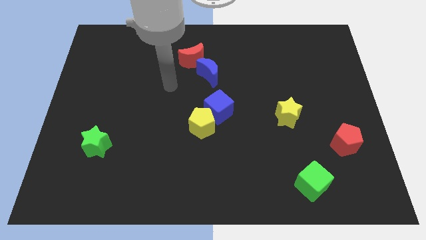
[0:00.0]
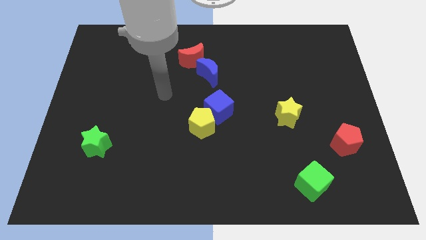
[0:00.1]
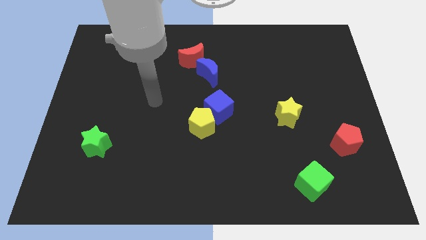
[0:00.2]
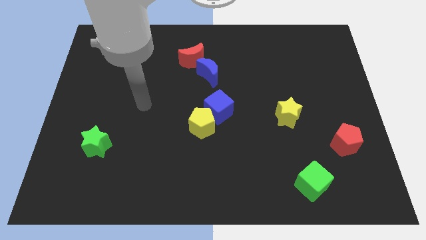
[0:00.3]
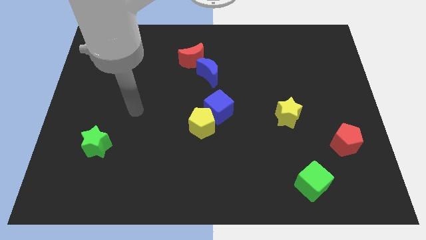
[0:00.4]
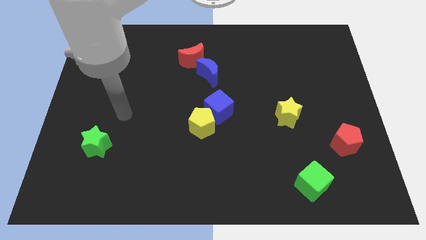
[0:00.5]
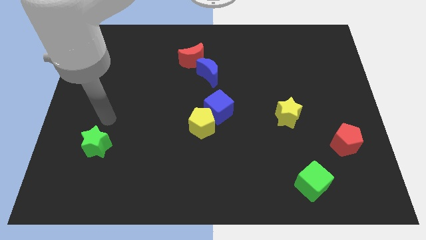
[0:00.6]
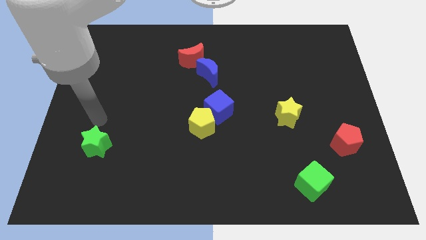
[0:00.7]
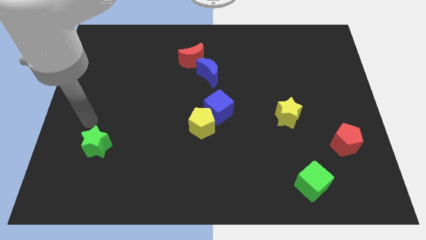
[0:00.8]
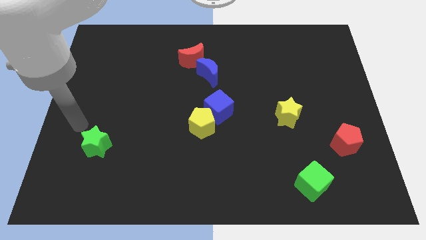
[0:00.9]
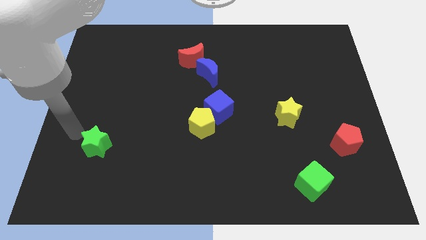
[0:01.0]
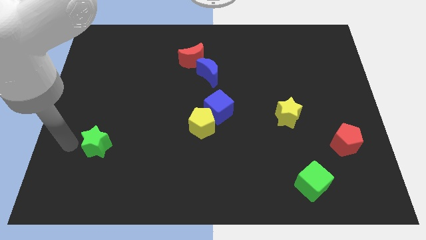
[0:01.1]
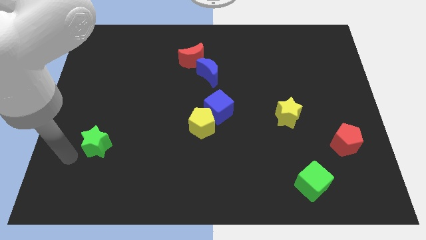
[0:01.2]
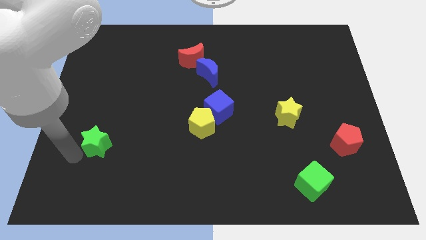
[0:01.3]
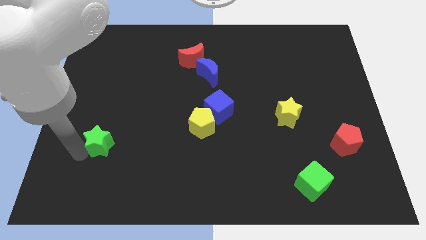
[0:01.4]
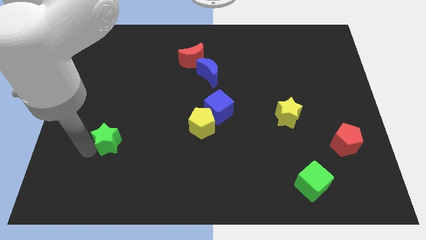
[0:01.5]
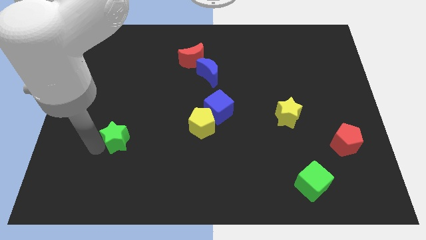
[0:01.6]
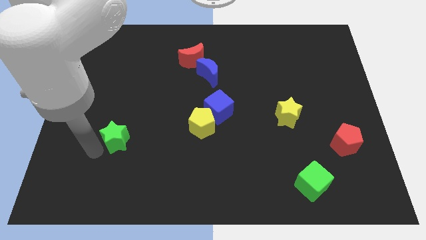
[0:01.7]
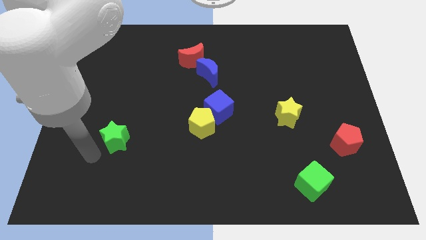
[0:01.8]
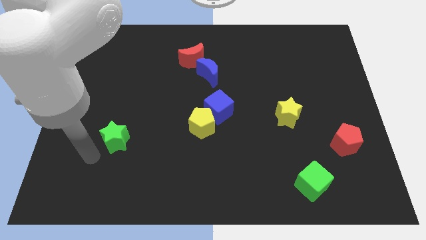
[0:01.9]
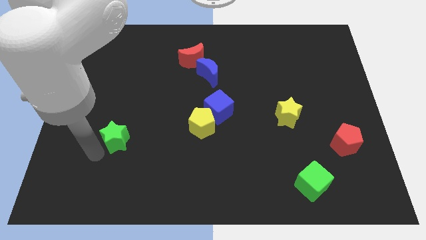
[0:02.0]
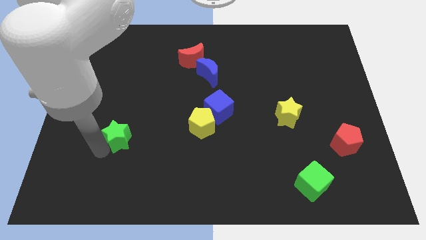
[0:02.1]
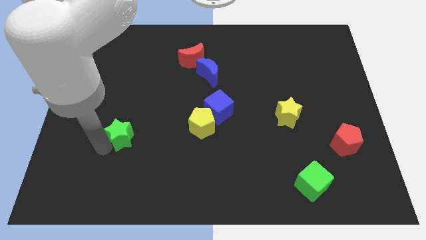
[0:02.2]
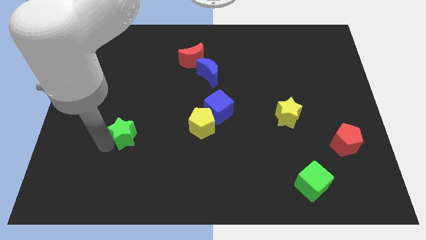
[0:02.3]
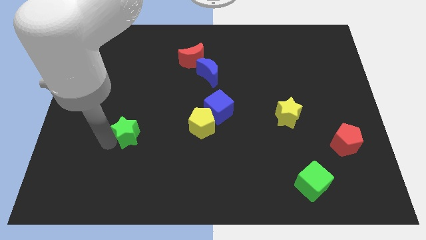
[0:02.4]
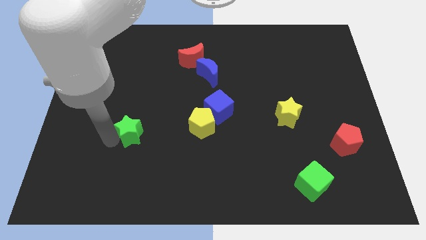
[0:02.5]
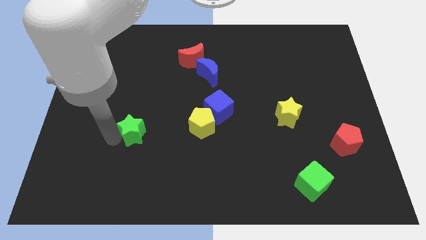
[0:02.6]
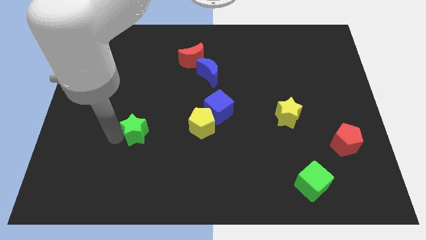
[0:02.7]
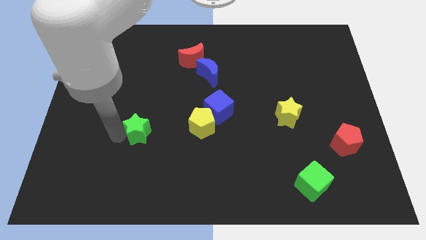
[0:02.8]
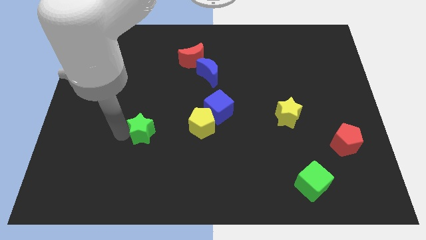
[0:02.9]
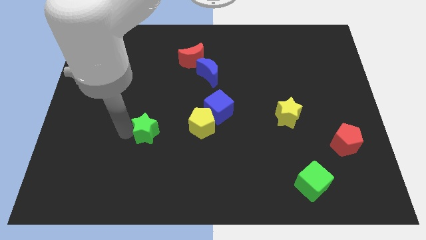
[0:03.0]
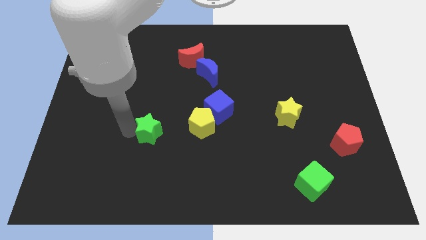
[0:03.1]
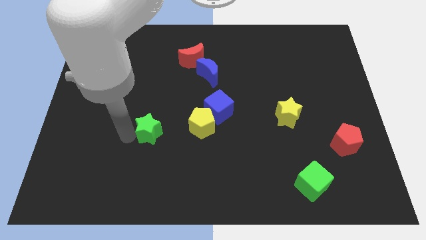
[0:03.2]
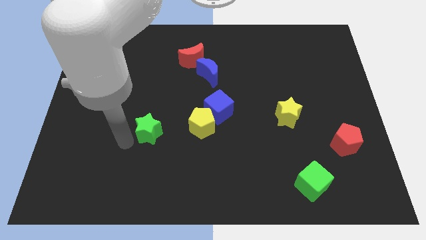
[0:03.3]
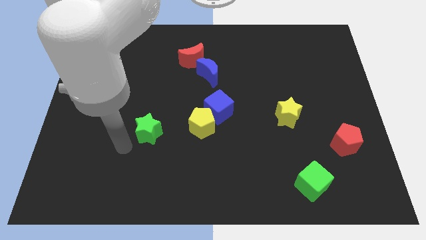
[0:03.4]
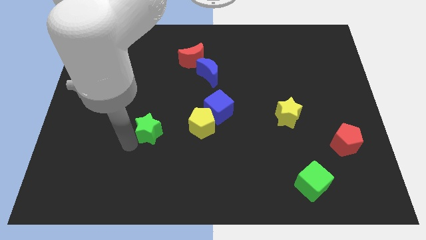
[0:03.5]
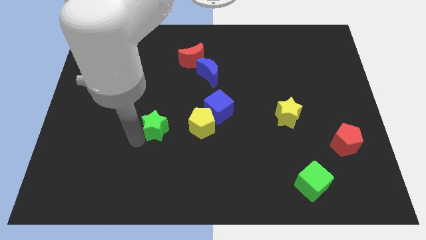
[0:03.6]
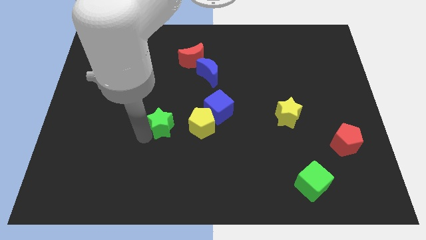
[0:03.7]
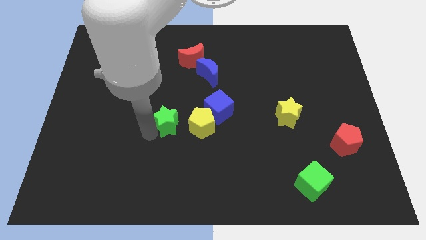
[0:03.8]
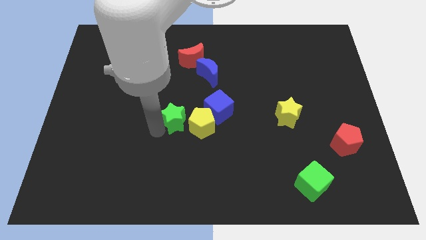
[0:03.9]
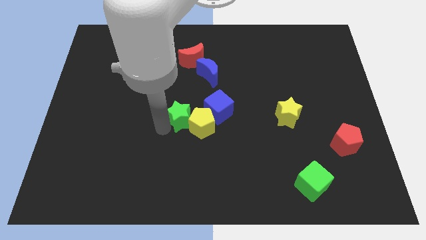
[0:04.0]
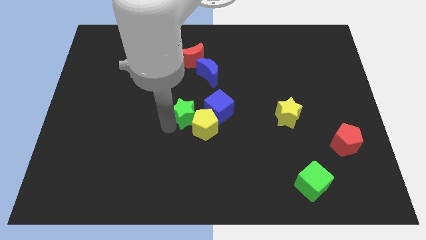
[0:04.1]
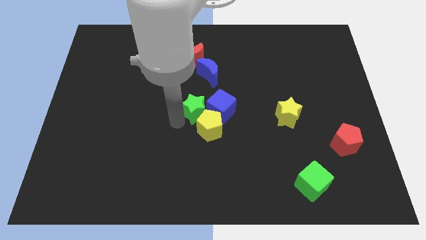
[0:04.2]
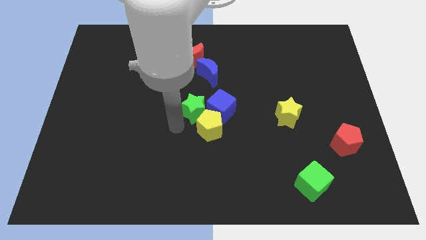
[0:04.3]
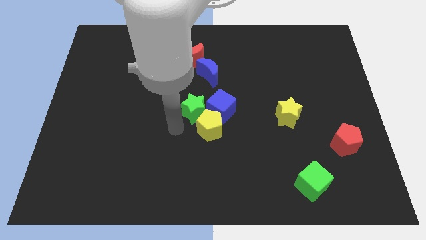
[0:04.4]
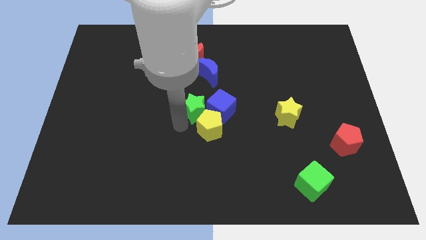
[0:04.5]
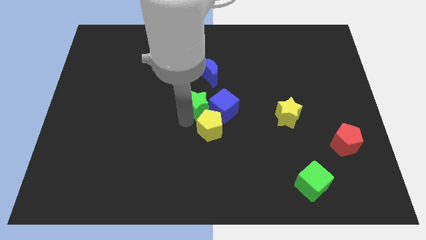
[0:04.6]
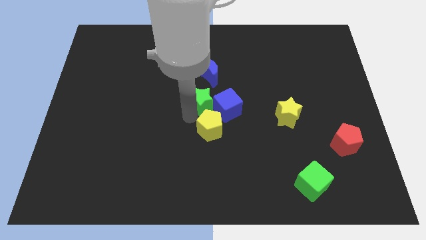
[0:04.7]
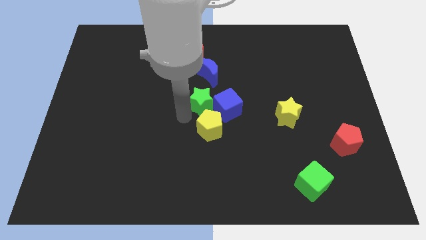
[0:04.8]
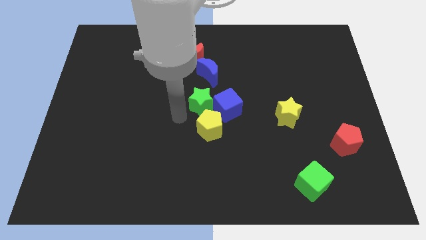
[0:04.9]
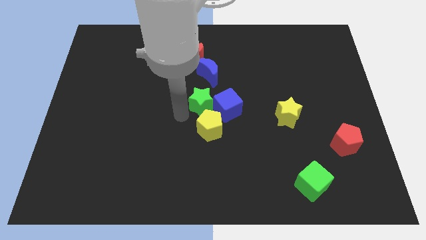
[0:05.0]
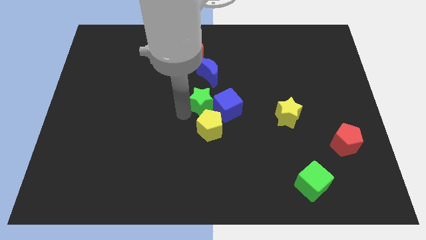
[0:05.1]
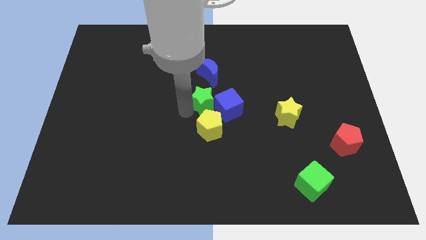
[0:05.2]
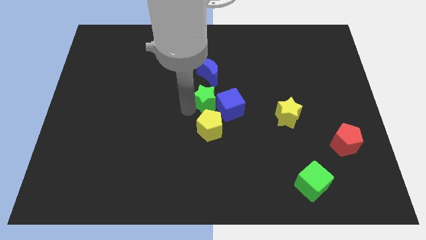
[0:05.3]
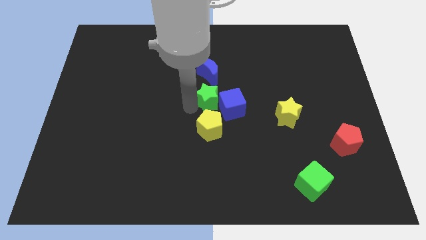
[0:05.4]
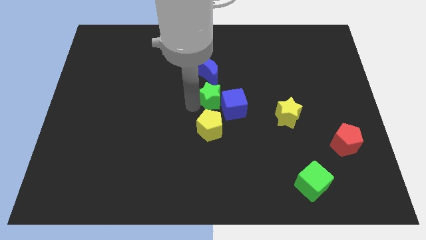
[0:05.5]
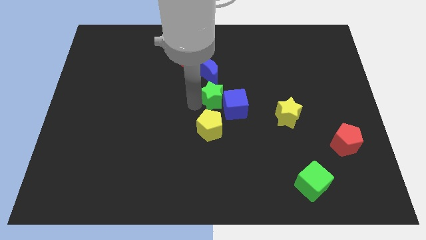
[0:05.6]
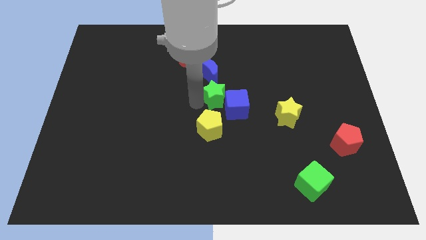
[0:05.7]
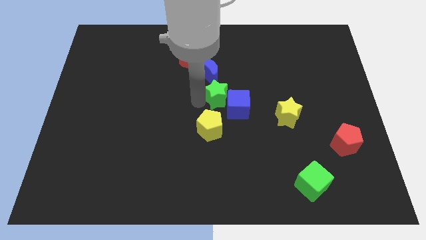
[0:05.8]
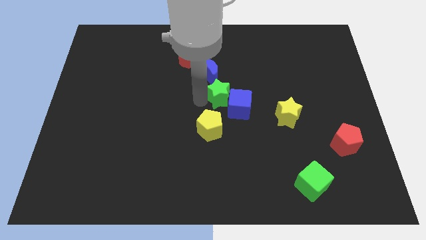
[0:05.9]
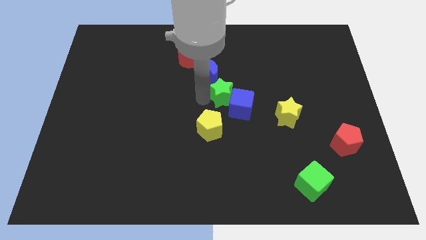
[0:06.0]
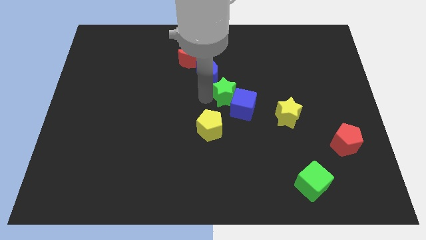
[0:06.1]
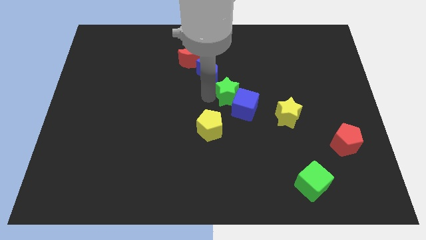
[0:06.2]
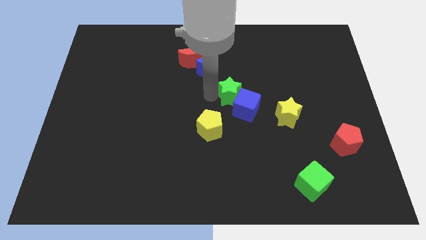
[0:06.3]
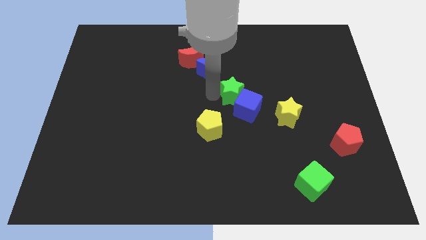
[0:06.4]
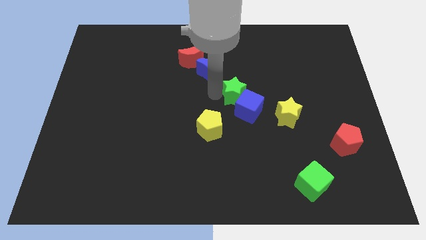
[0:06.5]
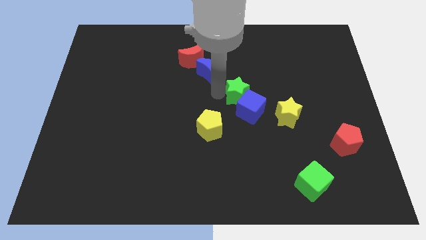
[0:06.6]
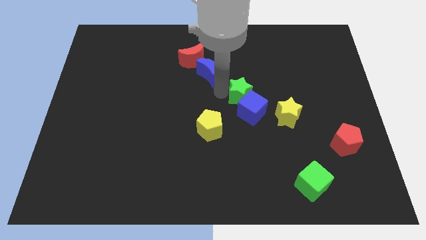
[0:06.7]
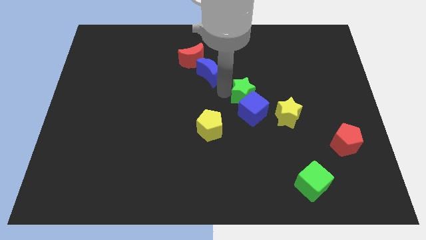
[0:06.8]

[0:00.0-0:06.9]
push the green star to the top left of the yellow star

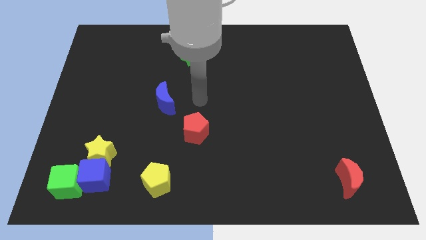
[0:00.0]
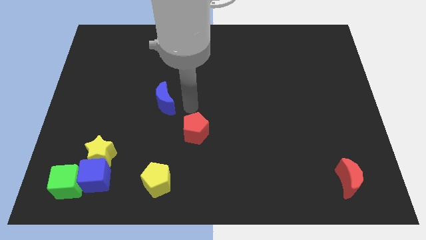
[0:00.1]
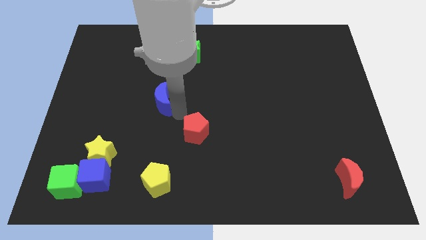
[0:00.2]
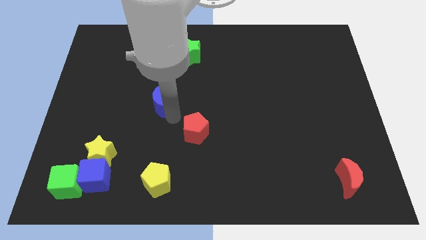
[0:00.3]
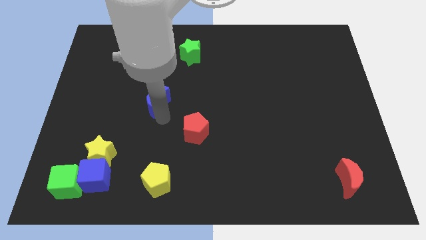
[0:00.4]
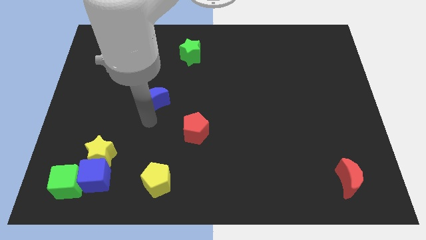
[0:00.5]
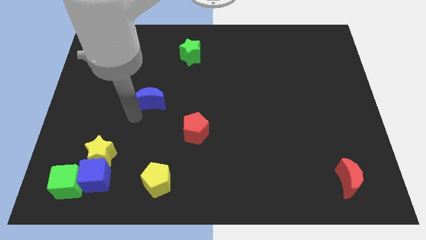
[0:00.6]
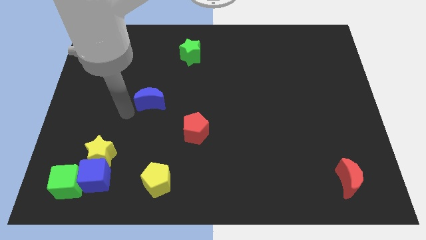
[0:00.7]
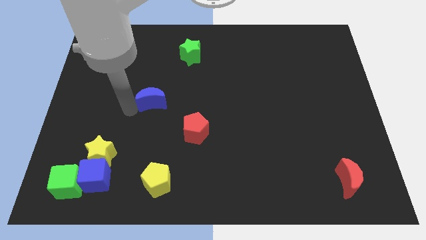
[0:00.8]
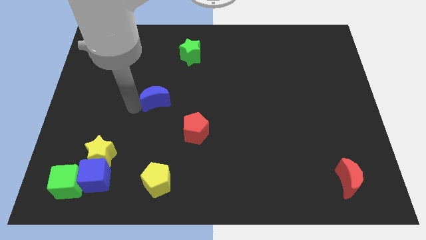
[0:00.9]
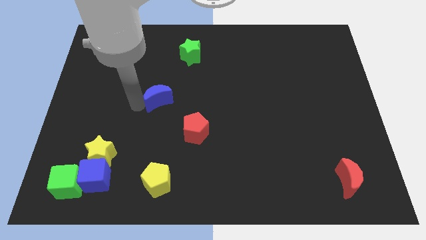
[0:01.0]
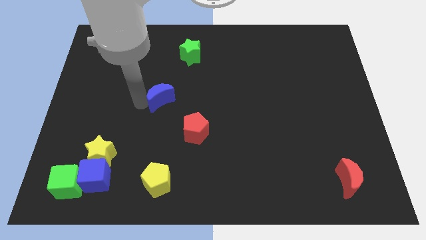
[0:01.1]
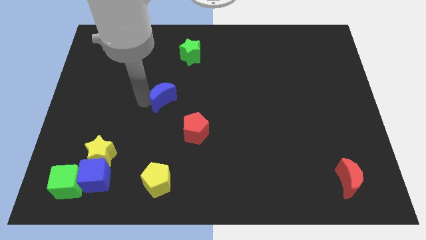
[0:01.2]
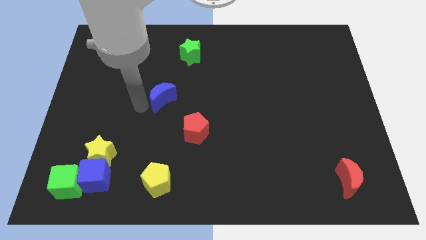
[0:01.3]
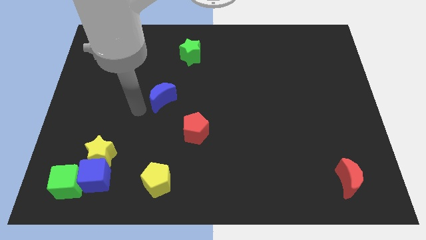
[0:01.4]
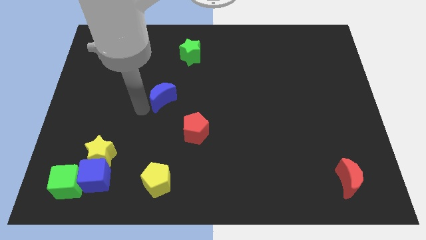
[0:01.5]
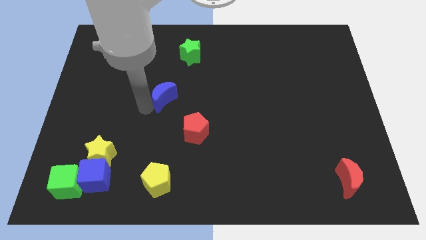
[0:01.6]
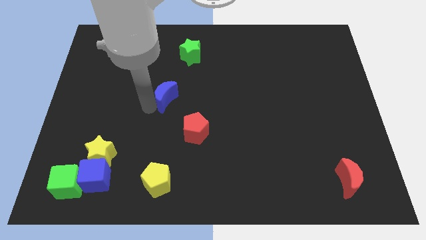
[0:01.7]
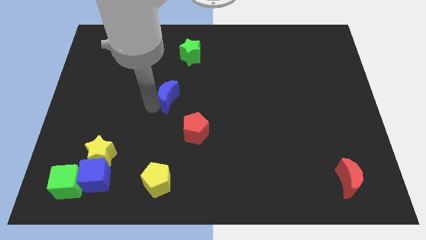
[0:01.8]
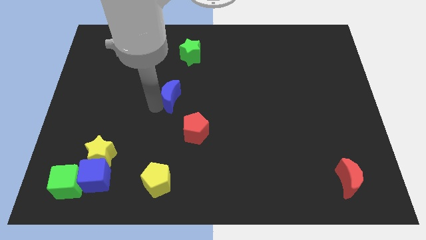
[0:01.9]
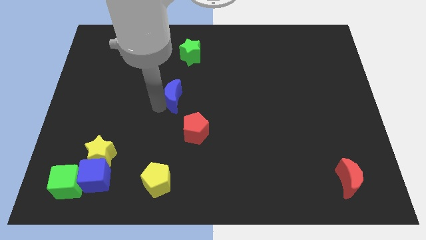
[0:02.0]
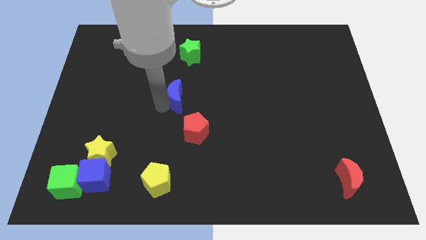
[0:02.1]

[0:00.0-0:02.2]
move the blue moon below the green star
